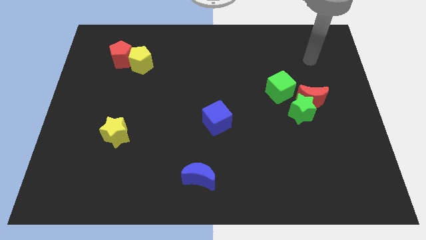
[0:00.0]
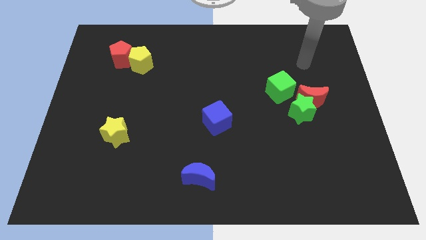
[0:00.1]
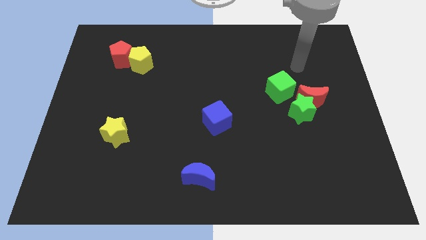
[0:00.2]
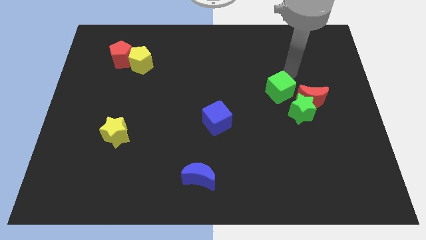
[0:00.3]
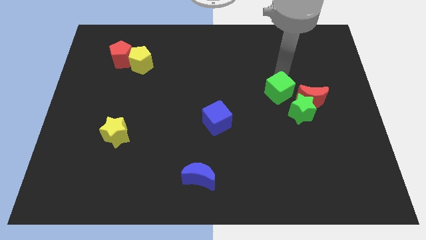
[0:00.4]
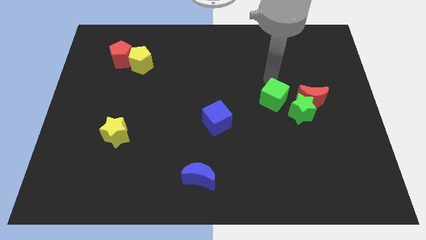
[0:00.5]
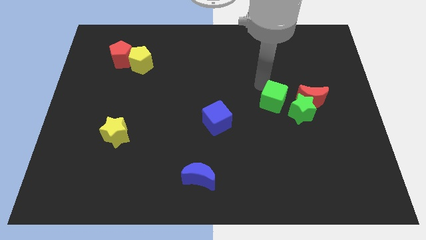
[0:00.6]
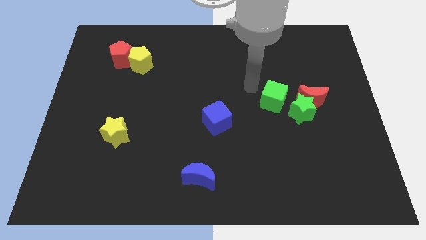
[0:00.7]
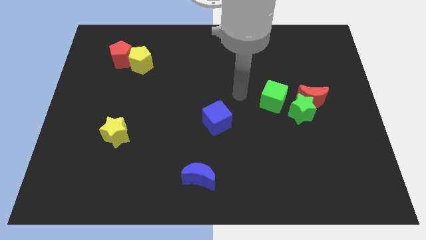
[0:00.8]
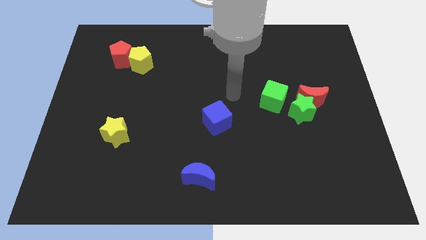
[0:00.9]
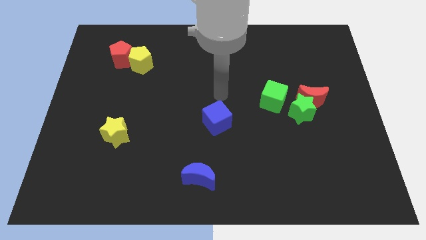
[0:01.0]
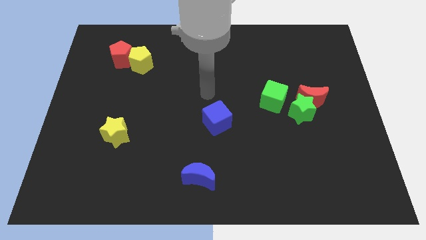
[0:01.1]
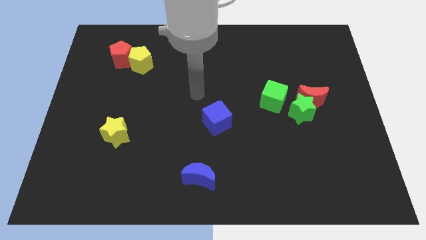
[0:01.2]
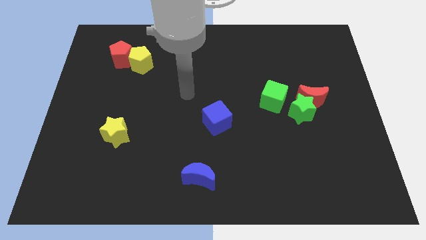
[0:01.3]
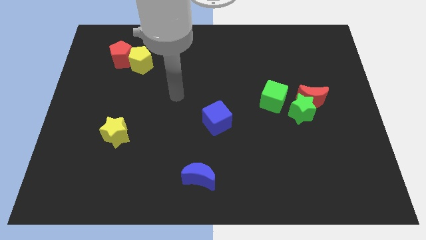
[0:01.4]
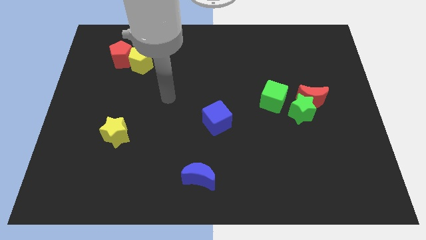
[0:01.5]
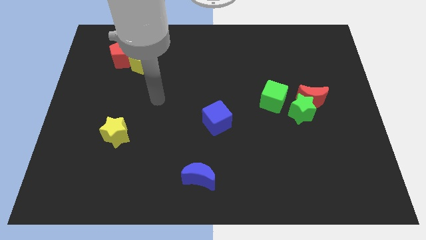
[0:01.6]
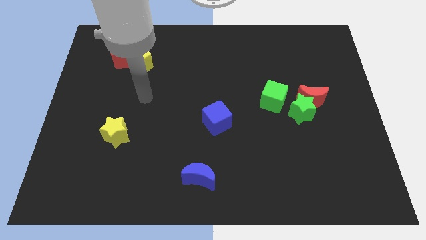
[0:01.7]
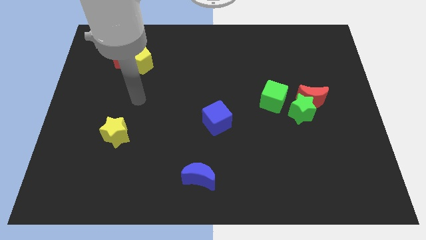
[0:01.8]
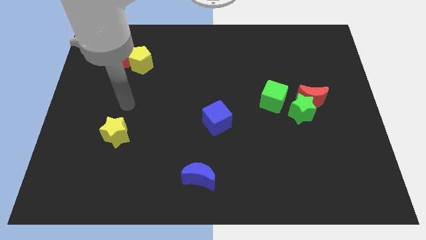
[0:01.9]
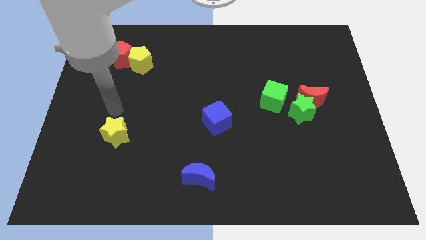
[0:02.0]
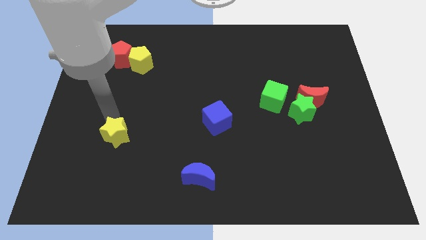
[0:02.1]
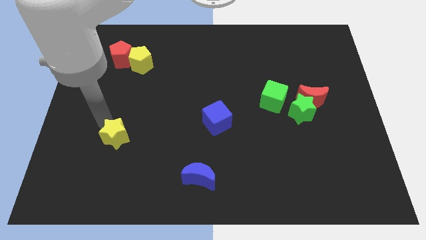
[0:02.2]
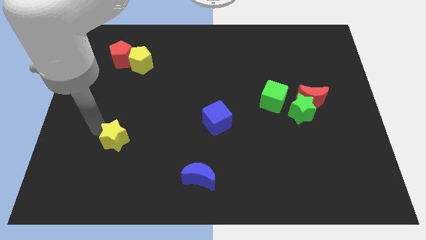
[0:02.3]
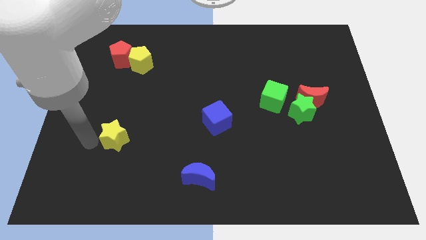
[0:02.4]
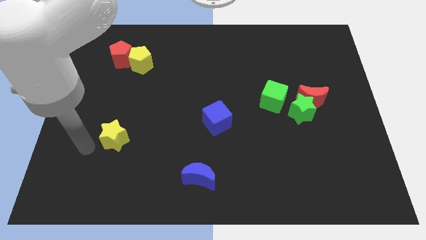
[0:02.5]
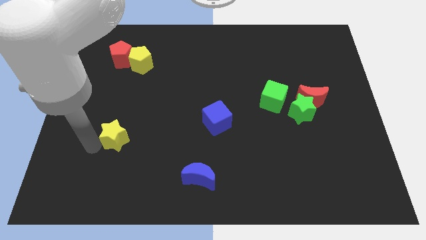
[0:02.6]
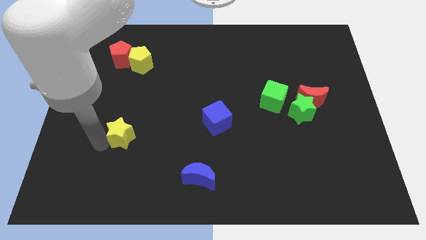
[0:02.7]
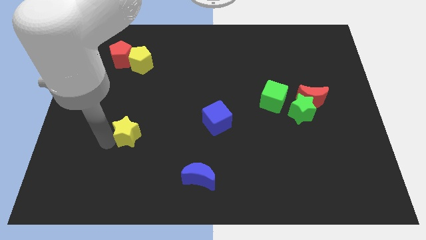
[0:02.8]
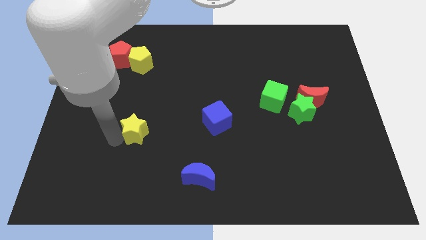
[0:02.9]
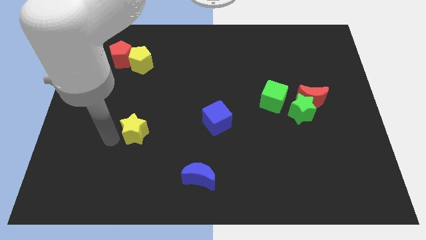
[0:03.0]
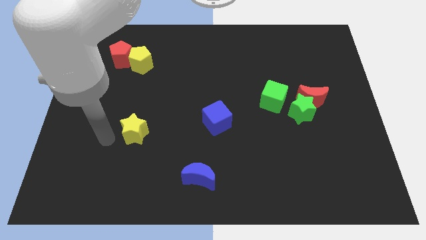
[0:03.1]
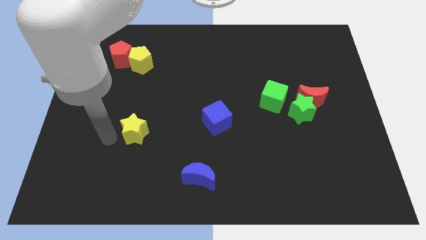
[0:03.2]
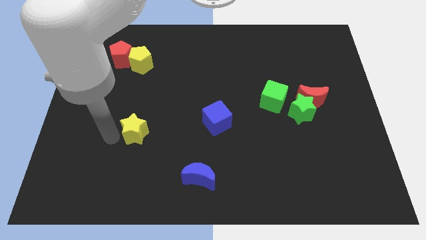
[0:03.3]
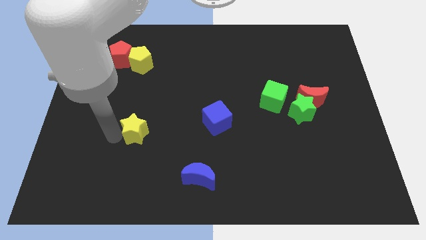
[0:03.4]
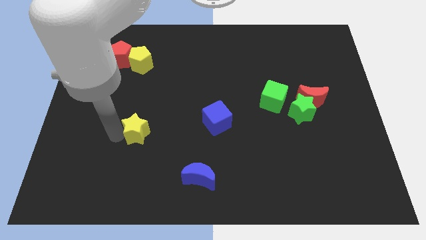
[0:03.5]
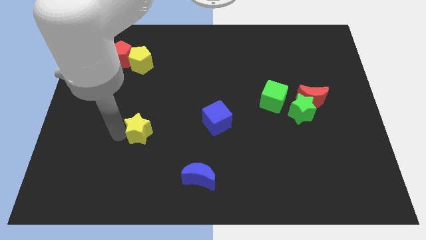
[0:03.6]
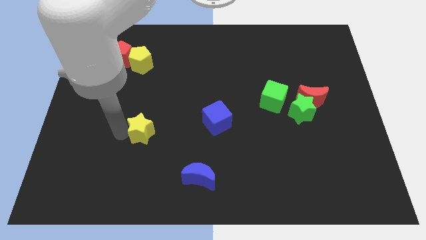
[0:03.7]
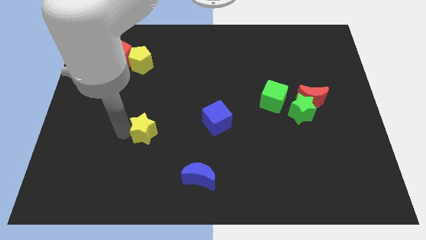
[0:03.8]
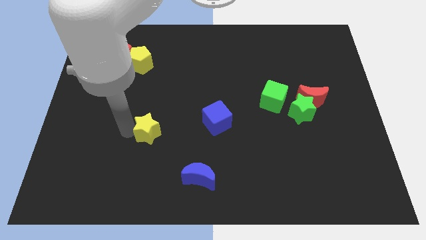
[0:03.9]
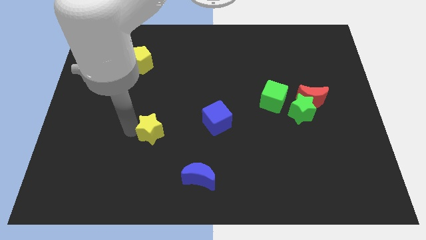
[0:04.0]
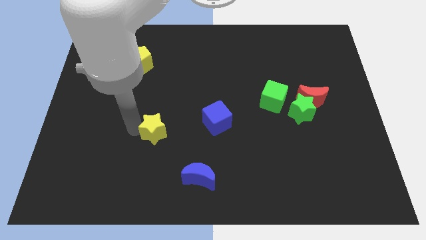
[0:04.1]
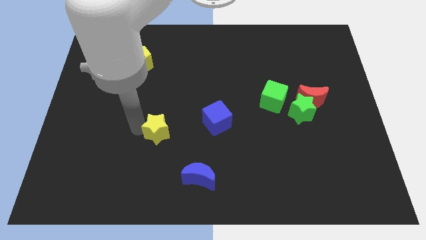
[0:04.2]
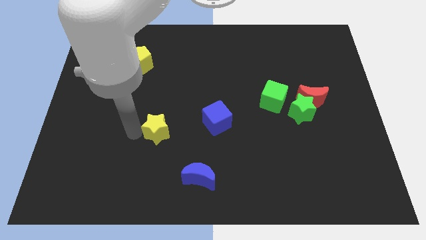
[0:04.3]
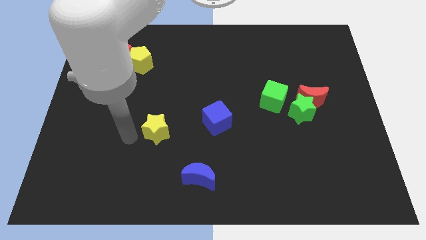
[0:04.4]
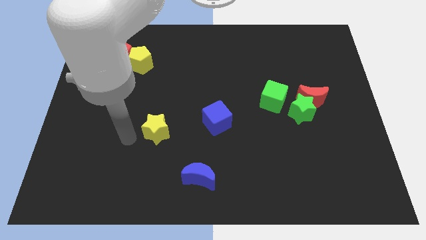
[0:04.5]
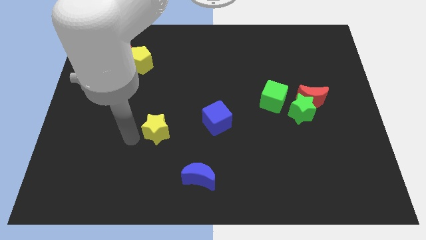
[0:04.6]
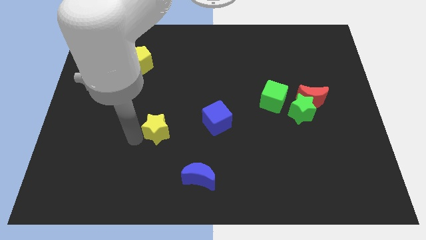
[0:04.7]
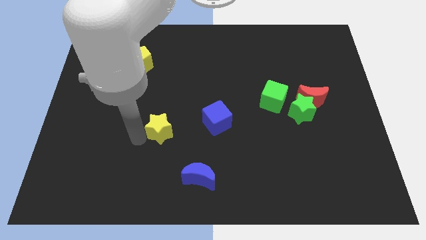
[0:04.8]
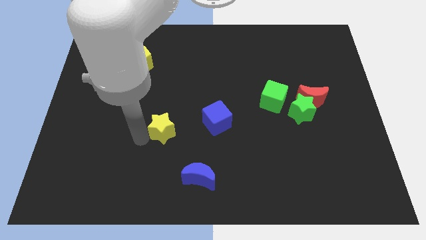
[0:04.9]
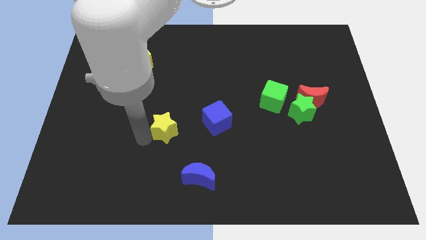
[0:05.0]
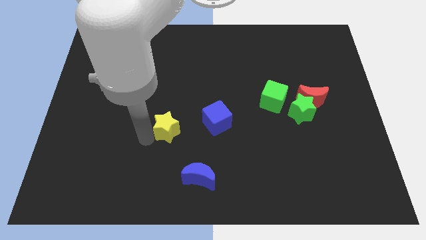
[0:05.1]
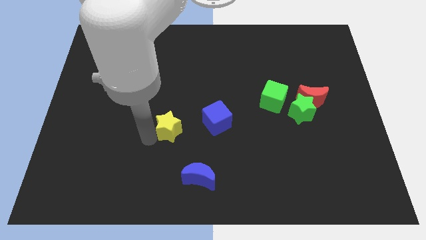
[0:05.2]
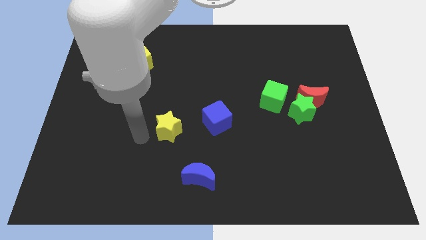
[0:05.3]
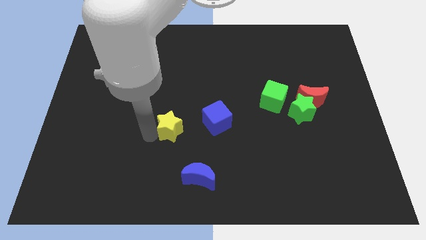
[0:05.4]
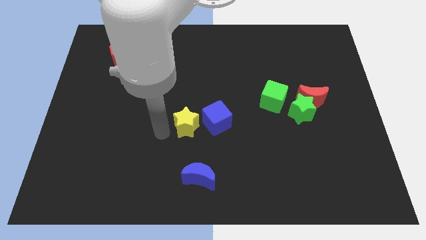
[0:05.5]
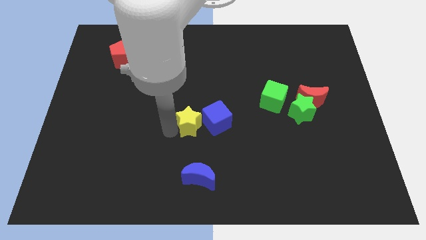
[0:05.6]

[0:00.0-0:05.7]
slide the yellow star to the blue cube

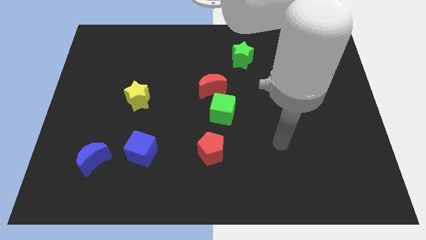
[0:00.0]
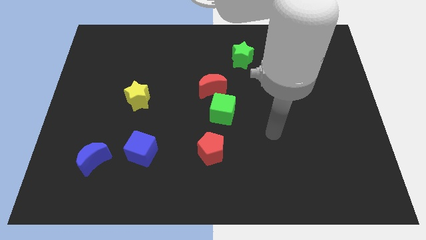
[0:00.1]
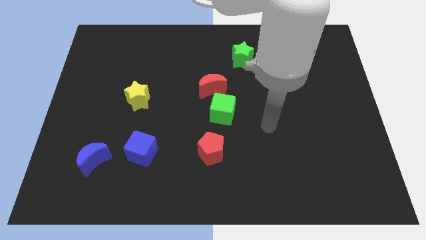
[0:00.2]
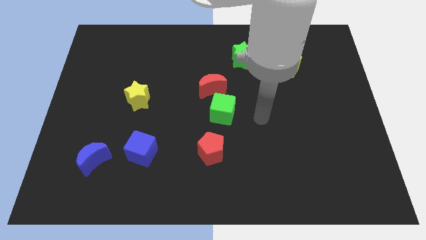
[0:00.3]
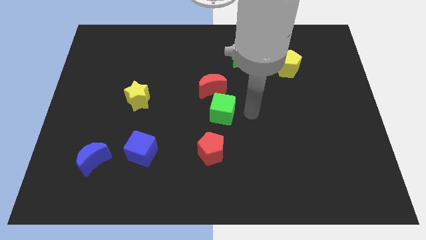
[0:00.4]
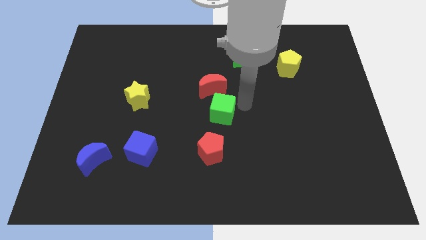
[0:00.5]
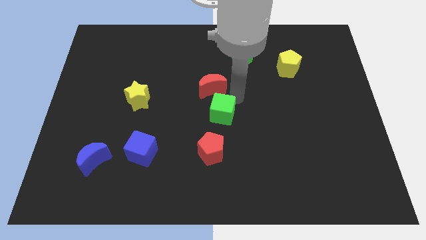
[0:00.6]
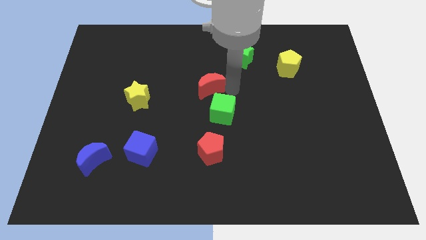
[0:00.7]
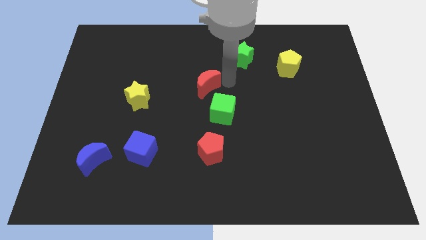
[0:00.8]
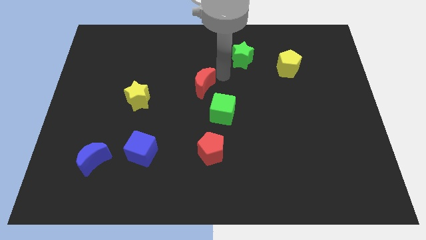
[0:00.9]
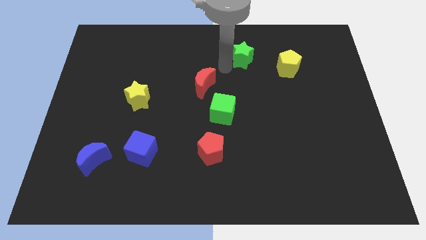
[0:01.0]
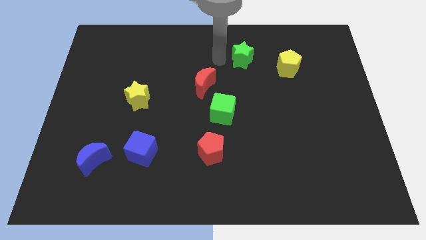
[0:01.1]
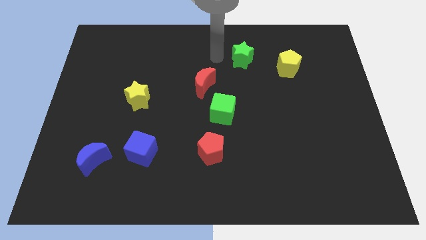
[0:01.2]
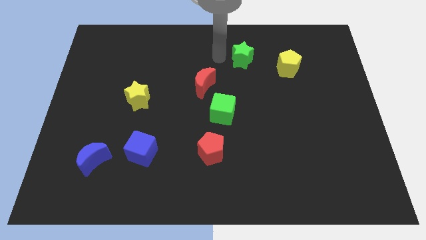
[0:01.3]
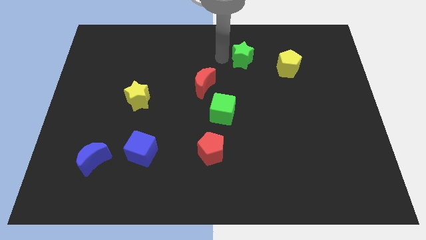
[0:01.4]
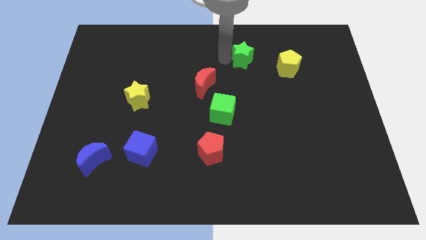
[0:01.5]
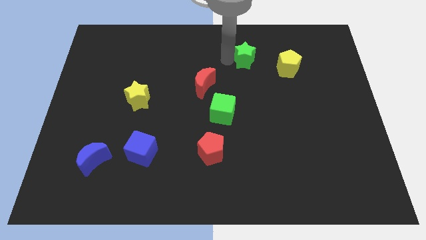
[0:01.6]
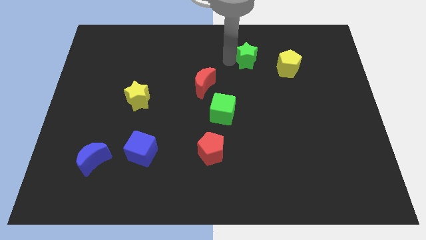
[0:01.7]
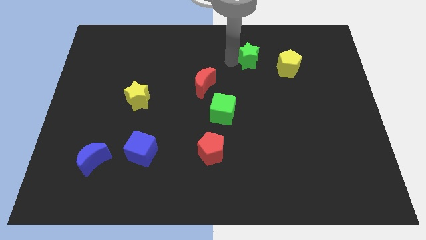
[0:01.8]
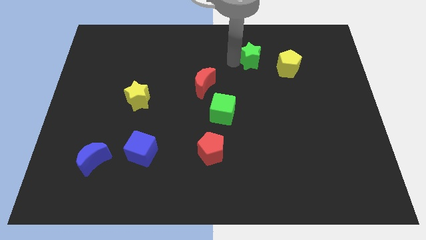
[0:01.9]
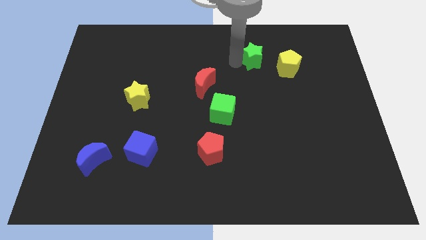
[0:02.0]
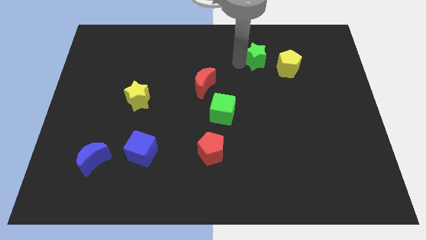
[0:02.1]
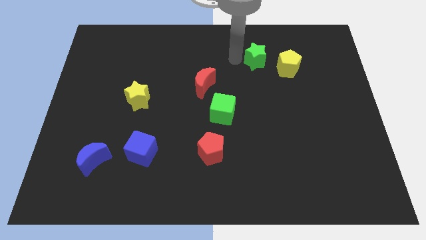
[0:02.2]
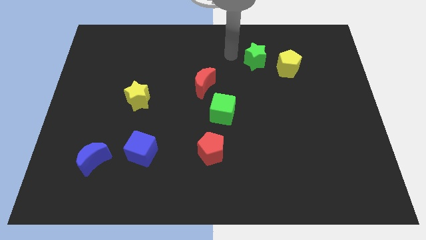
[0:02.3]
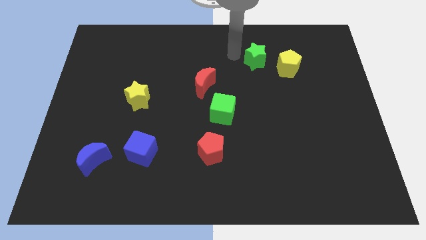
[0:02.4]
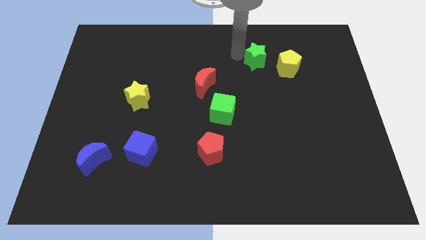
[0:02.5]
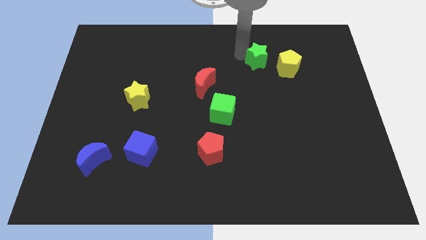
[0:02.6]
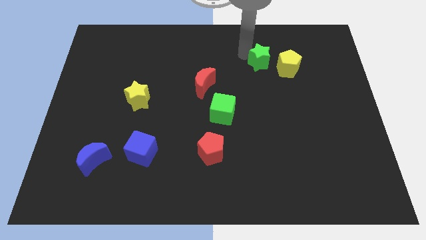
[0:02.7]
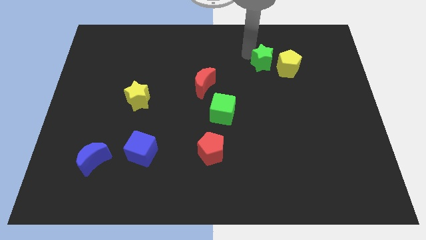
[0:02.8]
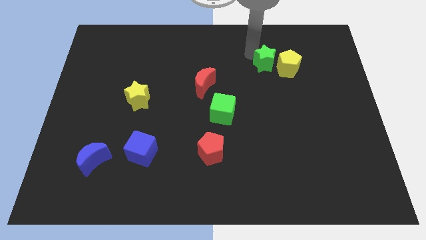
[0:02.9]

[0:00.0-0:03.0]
slide the green star close to the yellow pentagon
